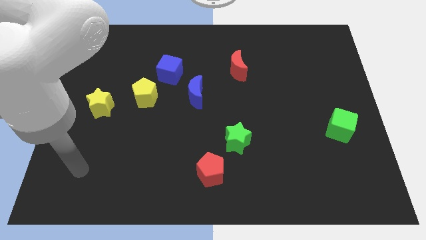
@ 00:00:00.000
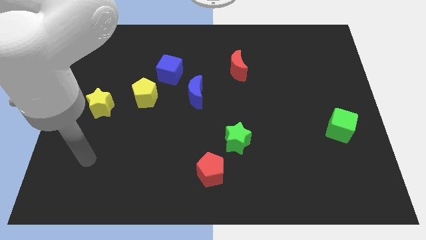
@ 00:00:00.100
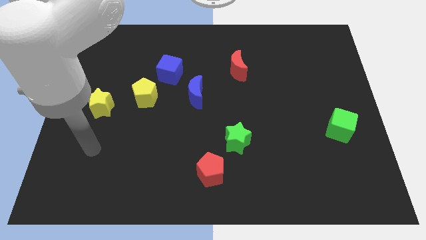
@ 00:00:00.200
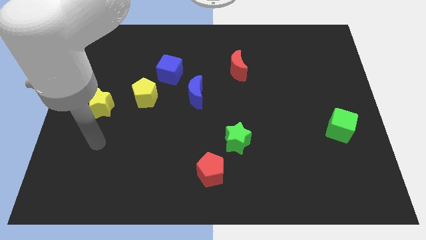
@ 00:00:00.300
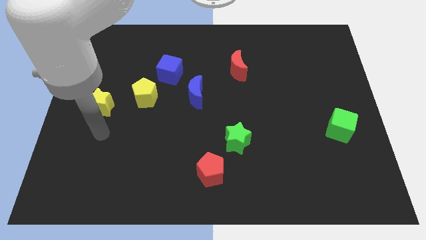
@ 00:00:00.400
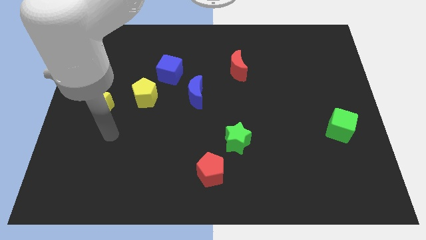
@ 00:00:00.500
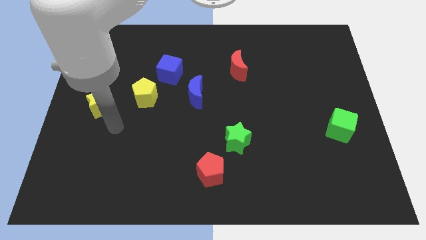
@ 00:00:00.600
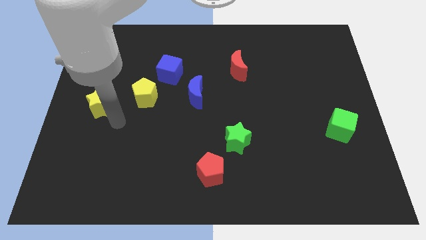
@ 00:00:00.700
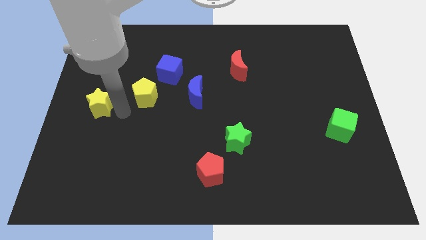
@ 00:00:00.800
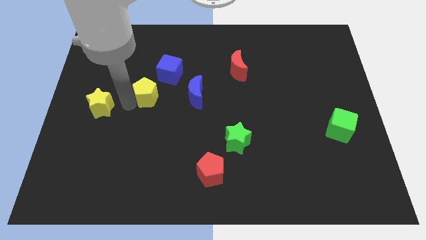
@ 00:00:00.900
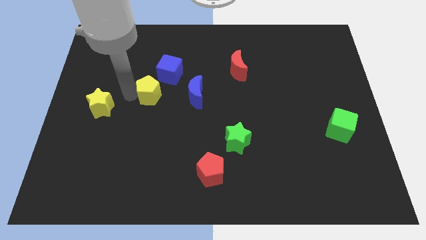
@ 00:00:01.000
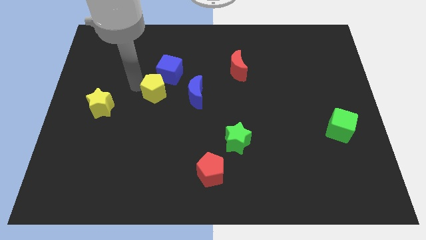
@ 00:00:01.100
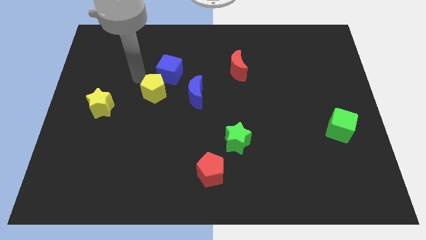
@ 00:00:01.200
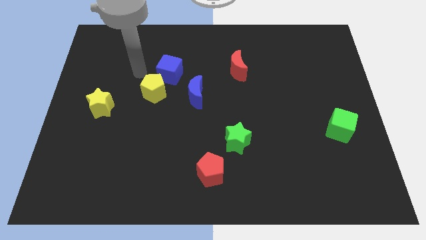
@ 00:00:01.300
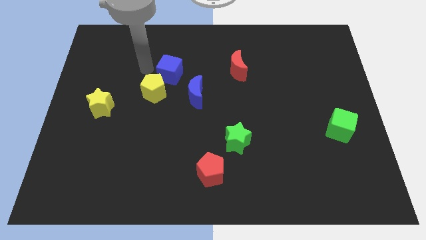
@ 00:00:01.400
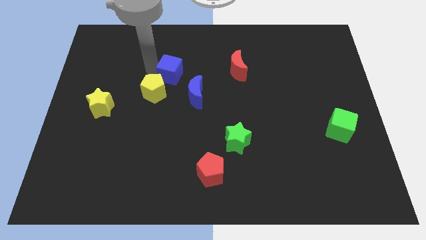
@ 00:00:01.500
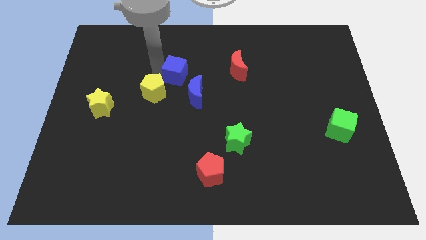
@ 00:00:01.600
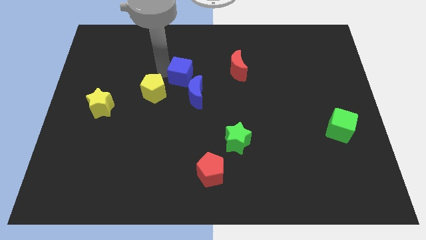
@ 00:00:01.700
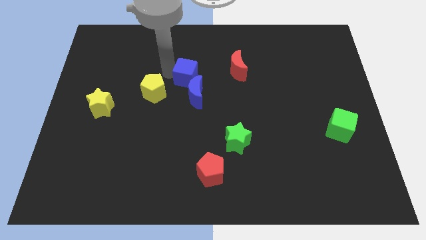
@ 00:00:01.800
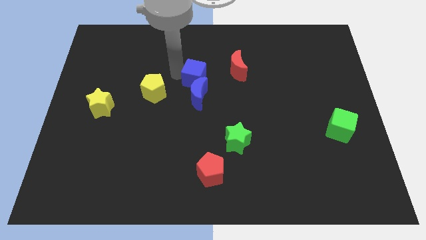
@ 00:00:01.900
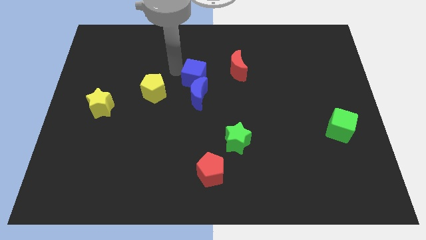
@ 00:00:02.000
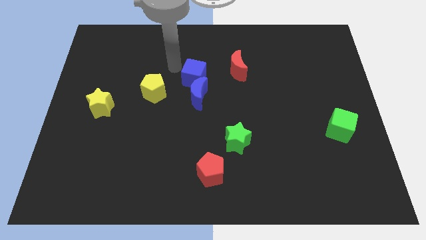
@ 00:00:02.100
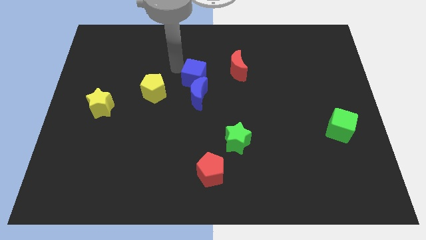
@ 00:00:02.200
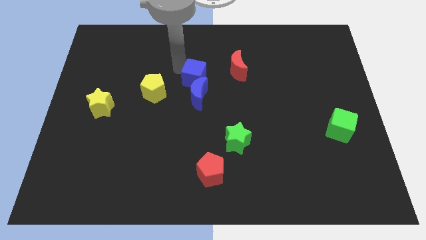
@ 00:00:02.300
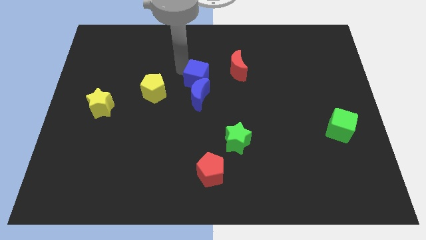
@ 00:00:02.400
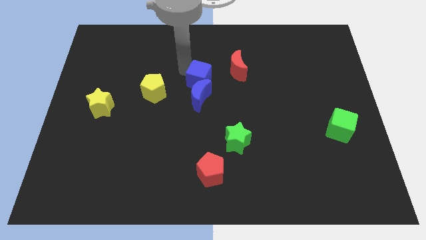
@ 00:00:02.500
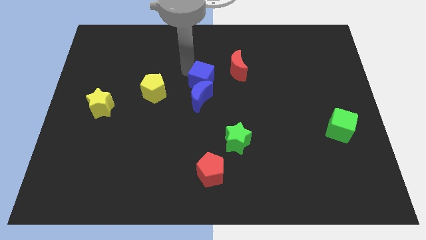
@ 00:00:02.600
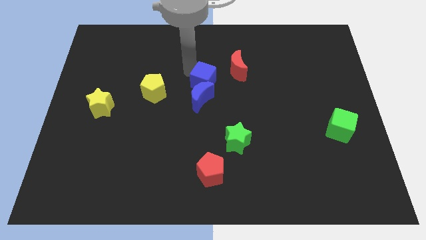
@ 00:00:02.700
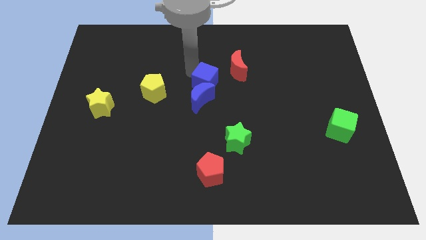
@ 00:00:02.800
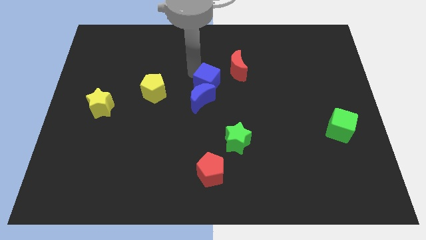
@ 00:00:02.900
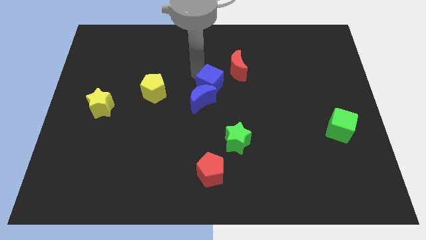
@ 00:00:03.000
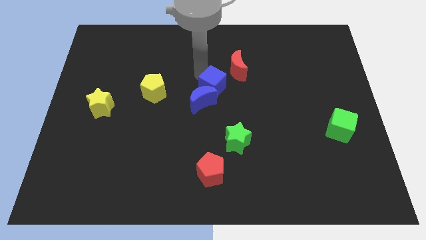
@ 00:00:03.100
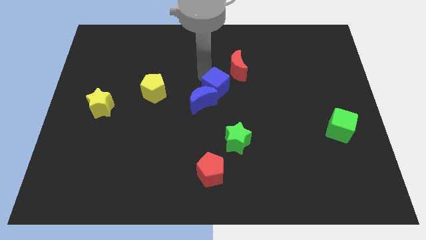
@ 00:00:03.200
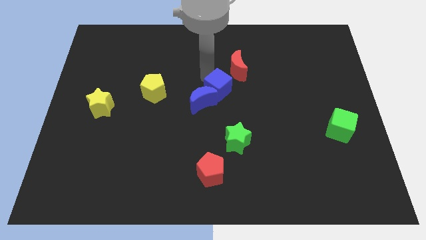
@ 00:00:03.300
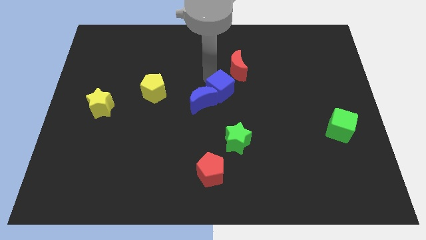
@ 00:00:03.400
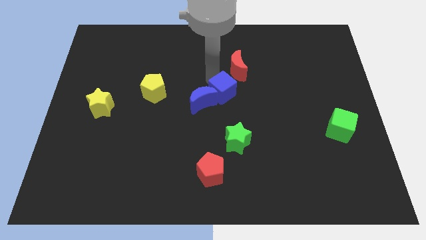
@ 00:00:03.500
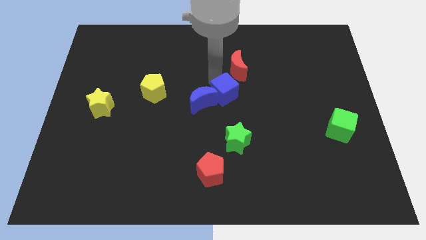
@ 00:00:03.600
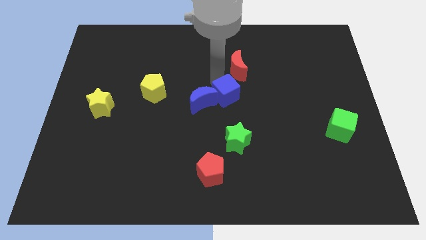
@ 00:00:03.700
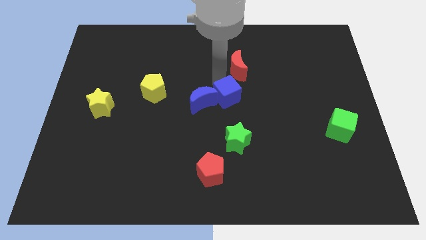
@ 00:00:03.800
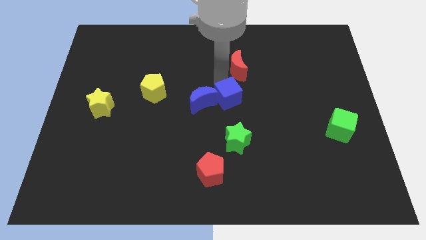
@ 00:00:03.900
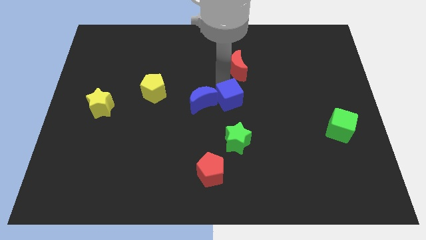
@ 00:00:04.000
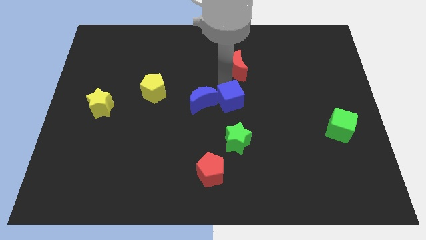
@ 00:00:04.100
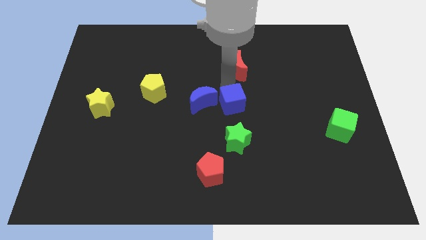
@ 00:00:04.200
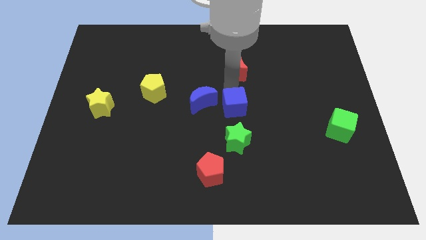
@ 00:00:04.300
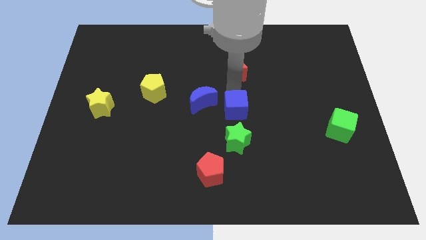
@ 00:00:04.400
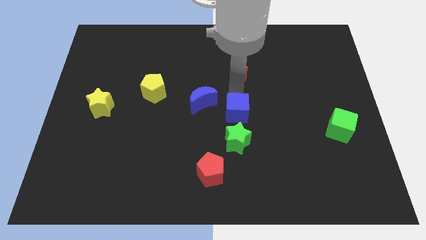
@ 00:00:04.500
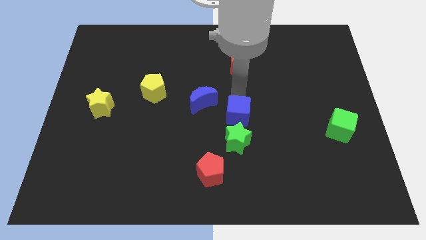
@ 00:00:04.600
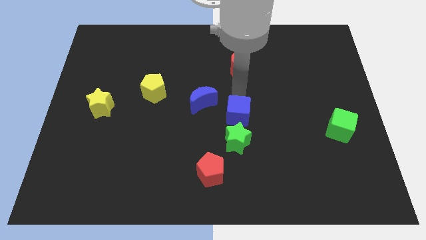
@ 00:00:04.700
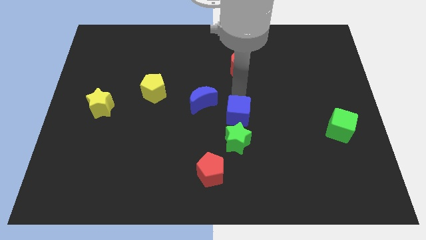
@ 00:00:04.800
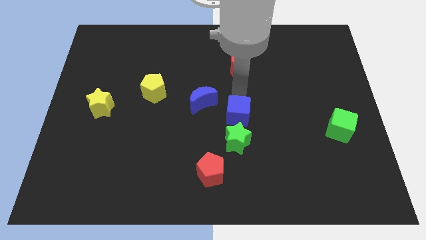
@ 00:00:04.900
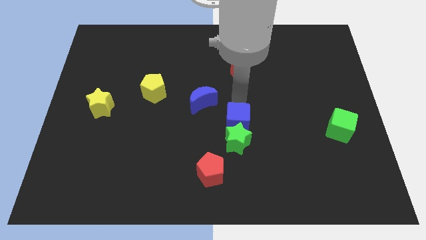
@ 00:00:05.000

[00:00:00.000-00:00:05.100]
slide the blue cube to the green star

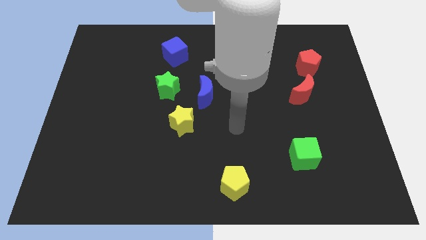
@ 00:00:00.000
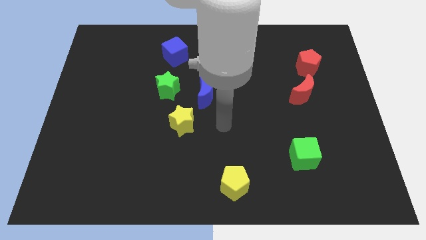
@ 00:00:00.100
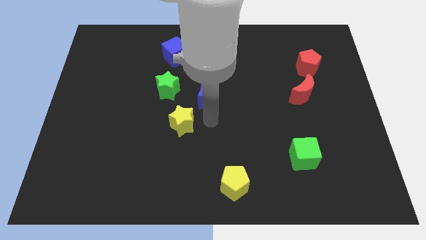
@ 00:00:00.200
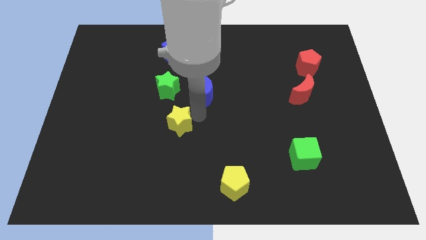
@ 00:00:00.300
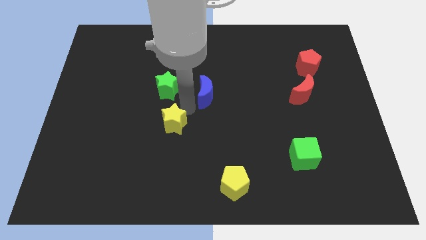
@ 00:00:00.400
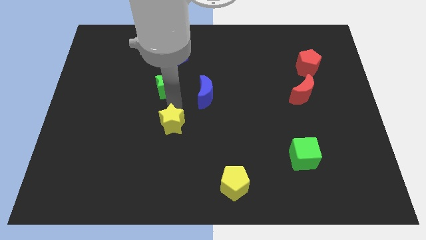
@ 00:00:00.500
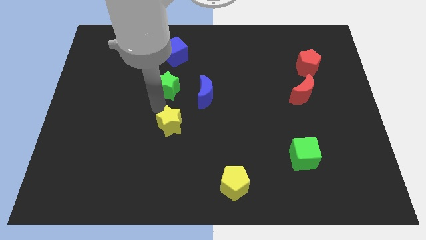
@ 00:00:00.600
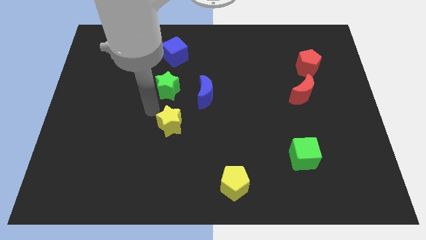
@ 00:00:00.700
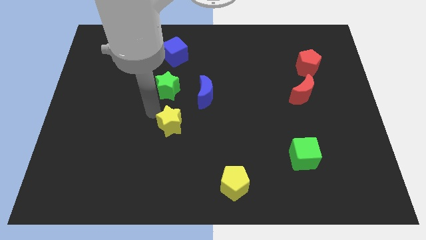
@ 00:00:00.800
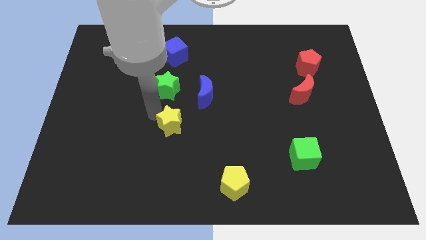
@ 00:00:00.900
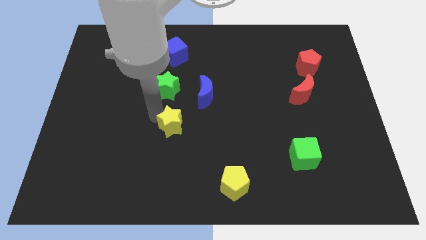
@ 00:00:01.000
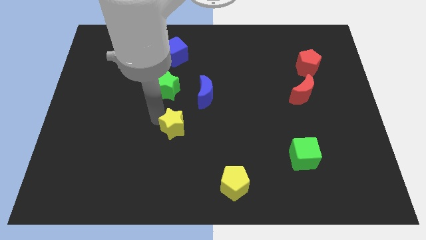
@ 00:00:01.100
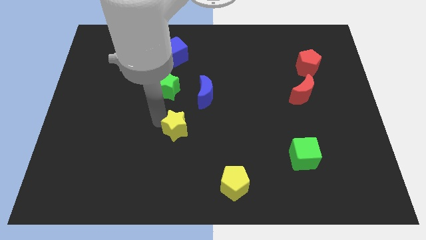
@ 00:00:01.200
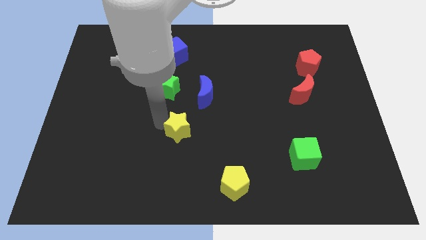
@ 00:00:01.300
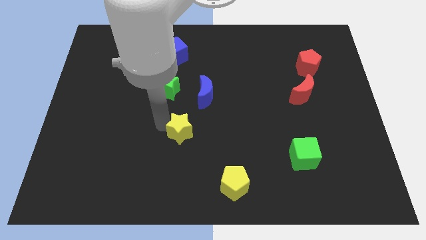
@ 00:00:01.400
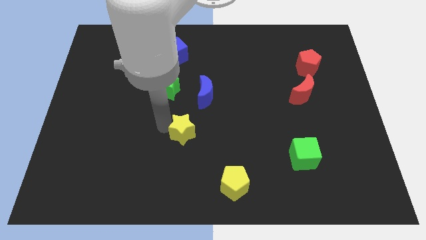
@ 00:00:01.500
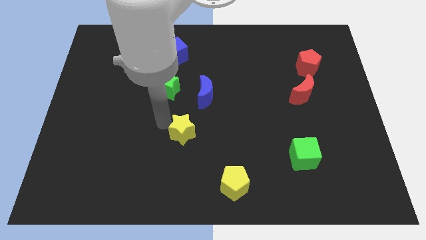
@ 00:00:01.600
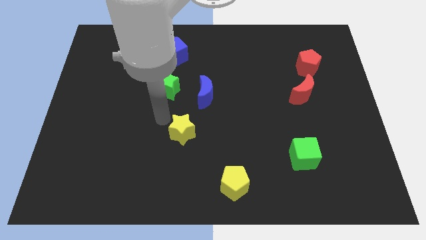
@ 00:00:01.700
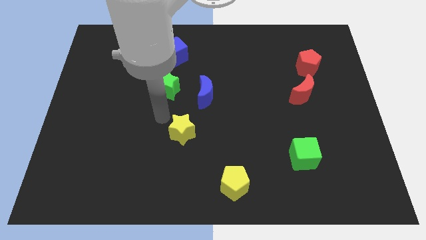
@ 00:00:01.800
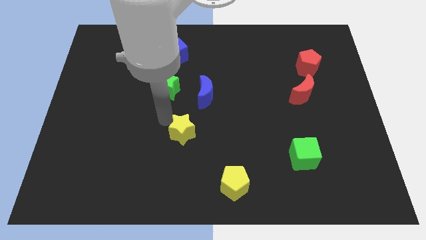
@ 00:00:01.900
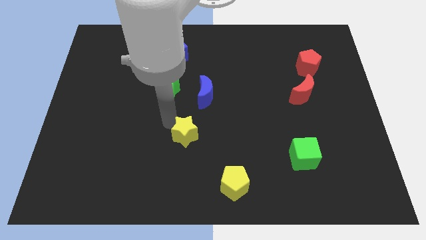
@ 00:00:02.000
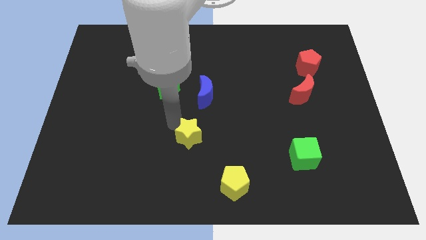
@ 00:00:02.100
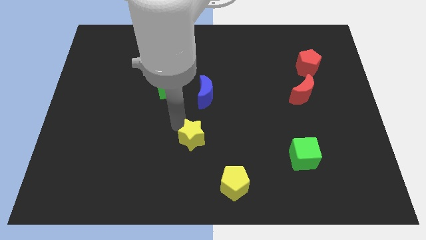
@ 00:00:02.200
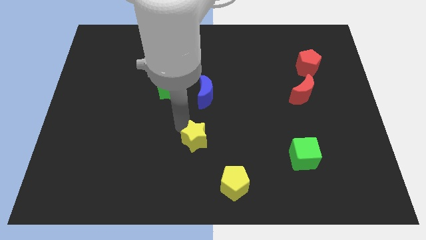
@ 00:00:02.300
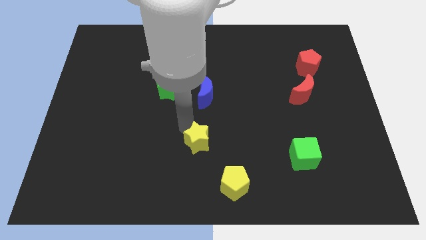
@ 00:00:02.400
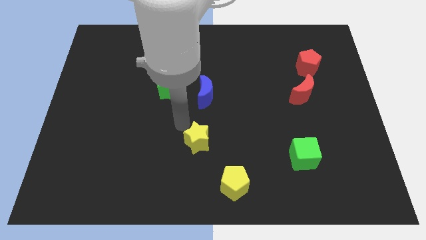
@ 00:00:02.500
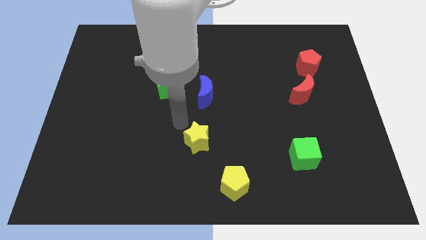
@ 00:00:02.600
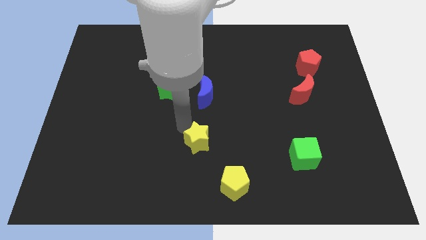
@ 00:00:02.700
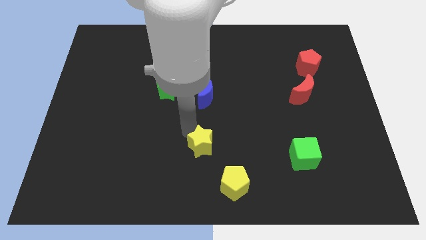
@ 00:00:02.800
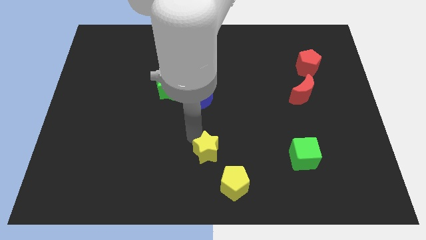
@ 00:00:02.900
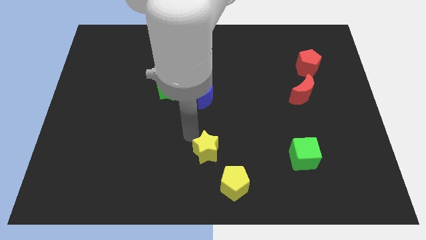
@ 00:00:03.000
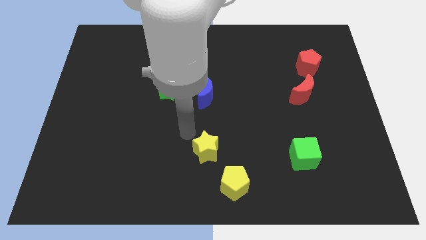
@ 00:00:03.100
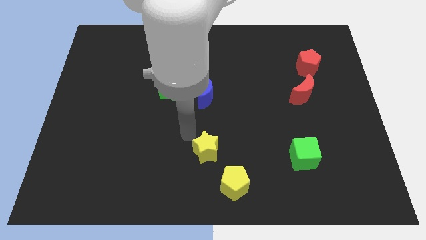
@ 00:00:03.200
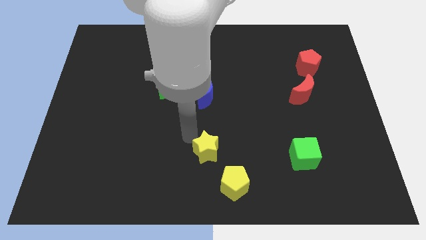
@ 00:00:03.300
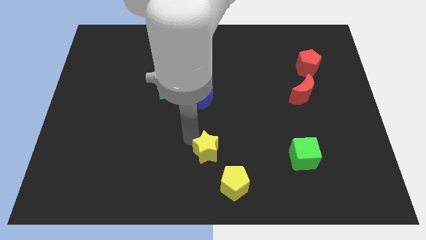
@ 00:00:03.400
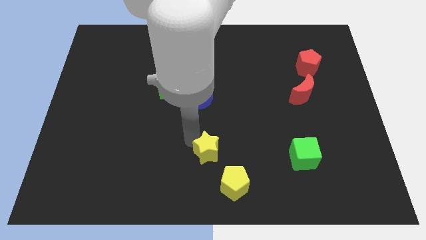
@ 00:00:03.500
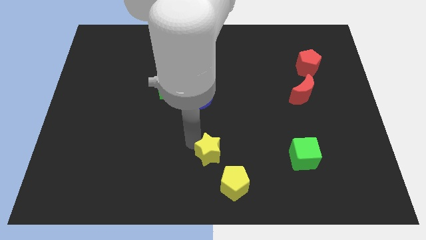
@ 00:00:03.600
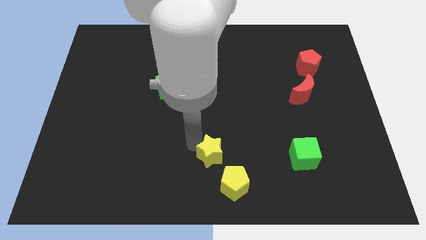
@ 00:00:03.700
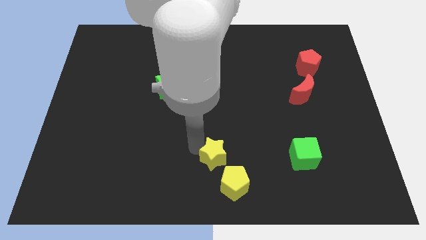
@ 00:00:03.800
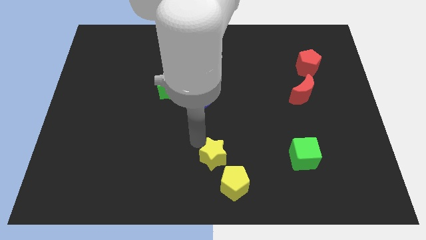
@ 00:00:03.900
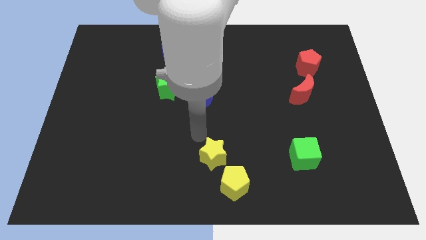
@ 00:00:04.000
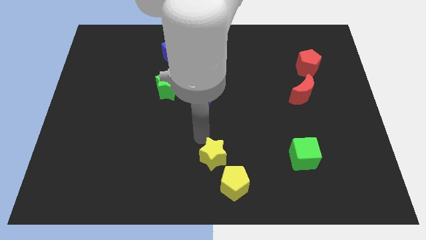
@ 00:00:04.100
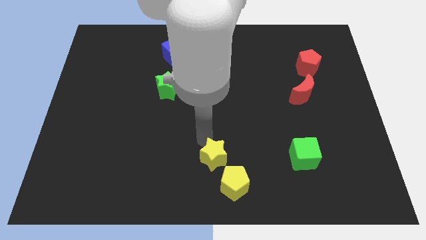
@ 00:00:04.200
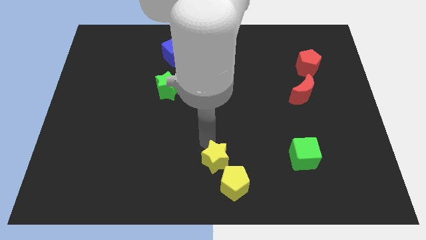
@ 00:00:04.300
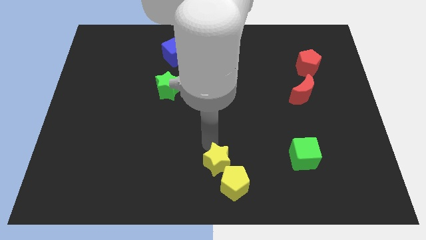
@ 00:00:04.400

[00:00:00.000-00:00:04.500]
slide the yellow star close to the yellow pentagon
